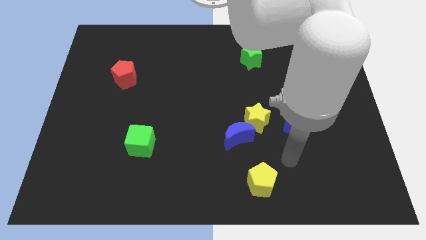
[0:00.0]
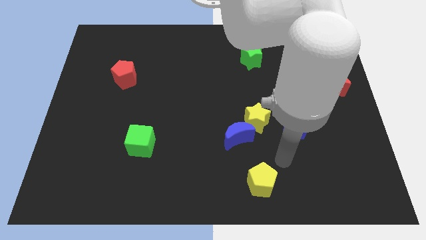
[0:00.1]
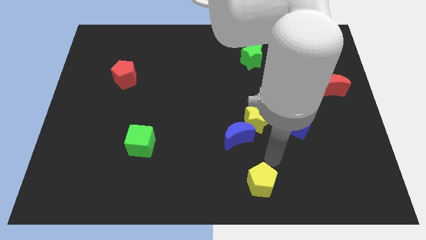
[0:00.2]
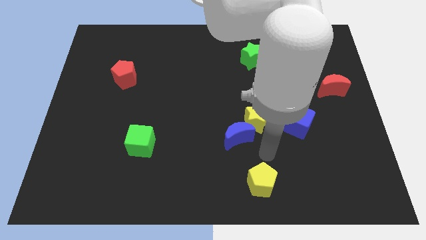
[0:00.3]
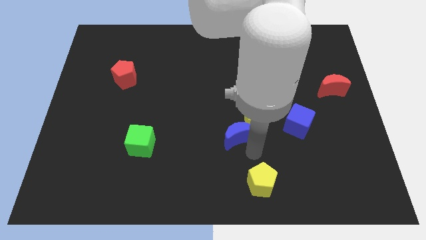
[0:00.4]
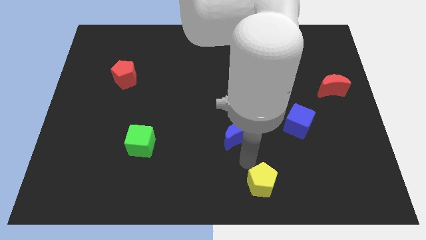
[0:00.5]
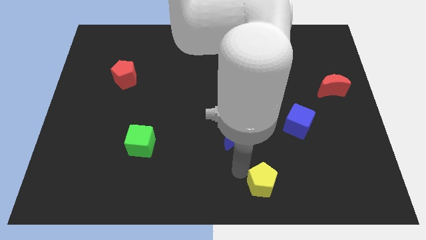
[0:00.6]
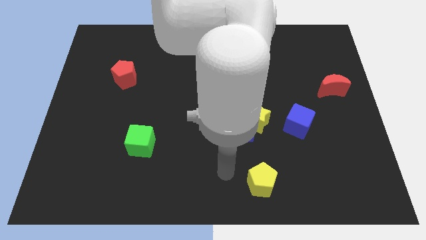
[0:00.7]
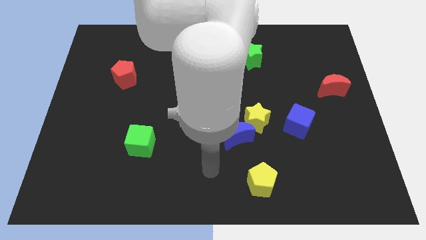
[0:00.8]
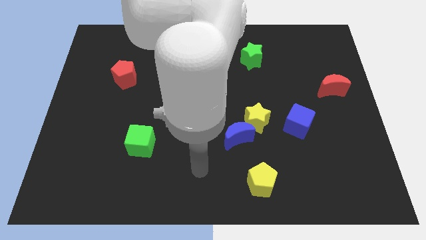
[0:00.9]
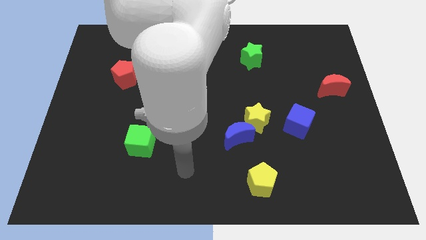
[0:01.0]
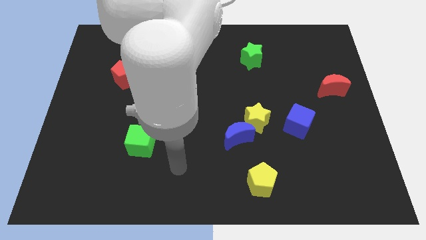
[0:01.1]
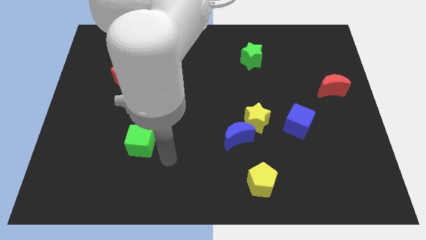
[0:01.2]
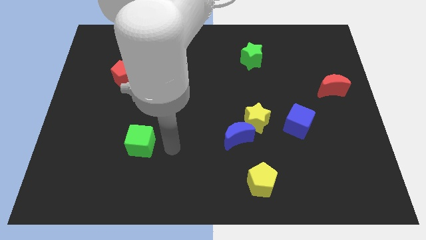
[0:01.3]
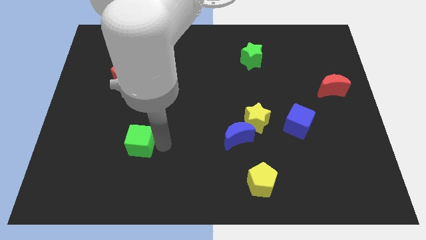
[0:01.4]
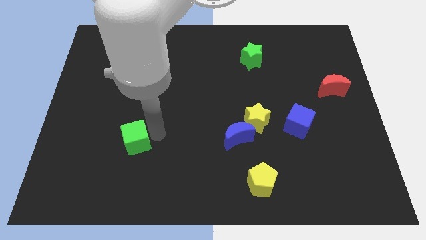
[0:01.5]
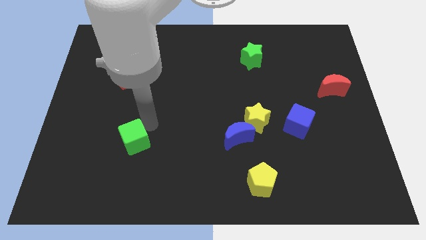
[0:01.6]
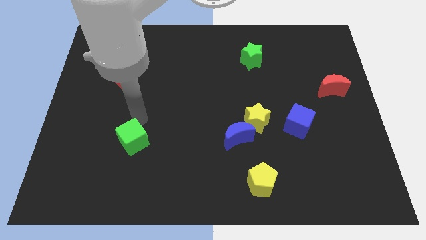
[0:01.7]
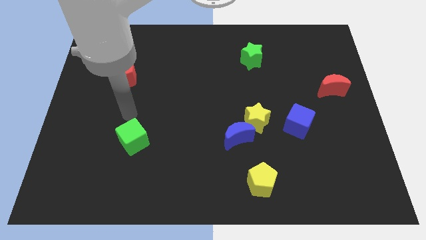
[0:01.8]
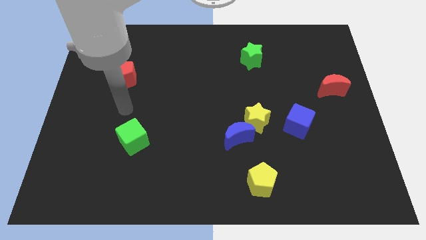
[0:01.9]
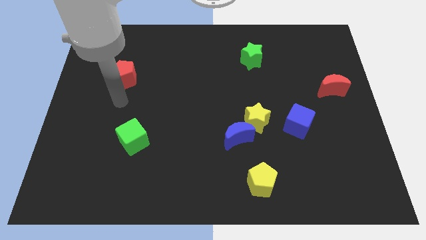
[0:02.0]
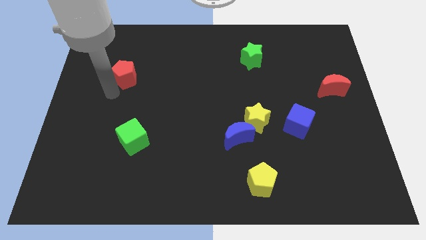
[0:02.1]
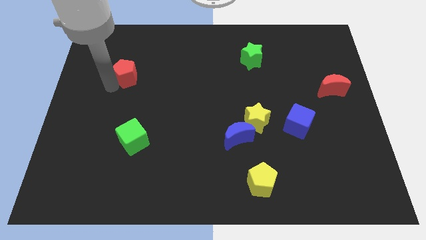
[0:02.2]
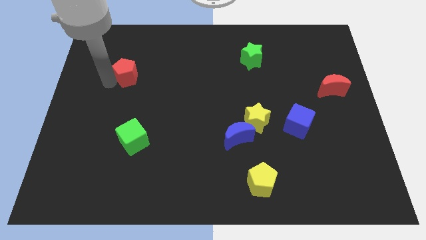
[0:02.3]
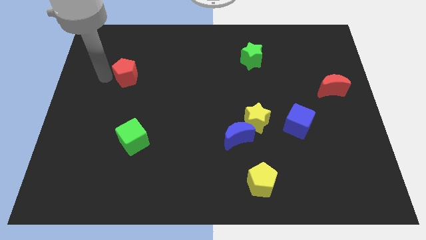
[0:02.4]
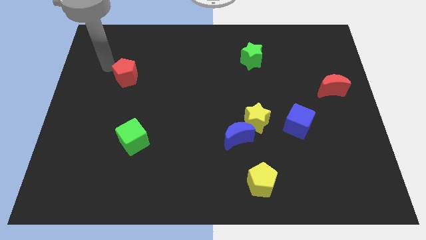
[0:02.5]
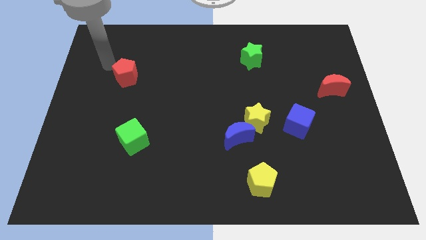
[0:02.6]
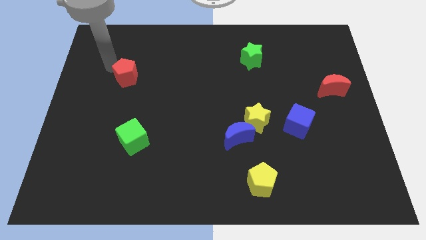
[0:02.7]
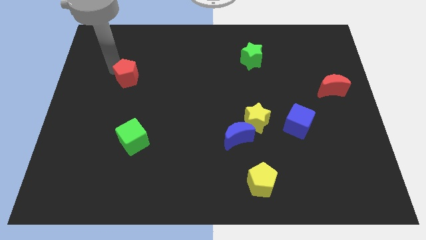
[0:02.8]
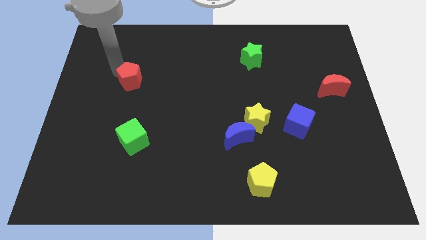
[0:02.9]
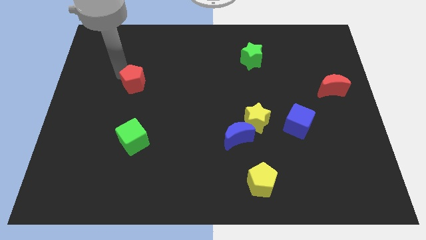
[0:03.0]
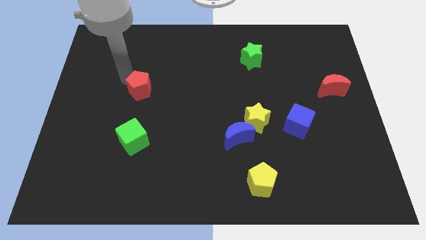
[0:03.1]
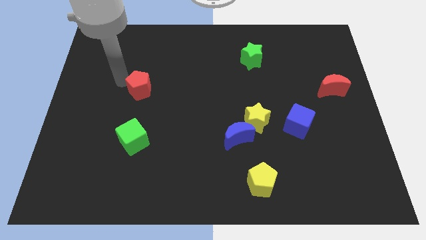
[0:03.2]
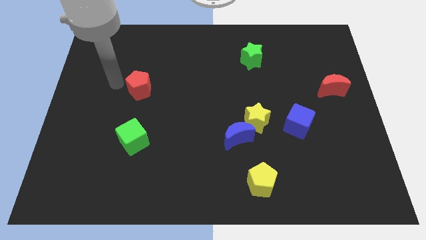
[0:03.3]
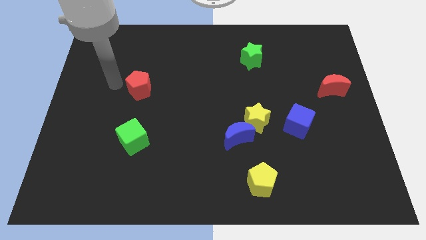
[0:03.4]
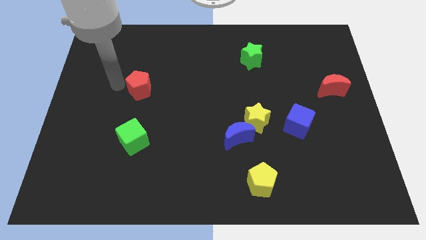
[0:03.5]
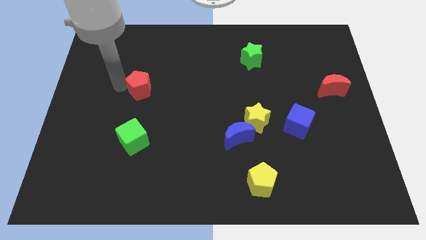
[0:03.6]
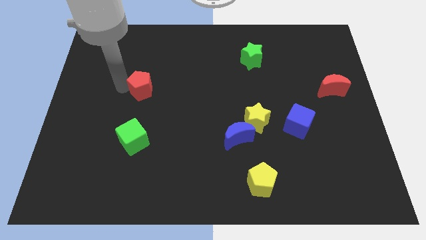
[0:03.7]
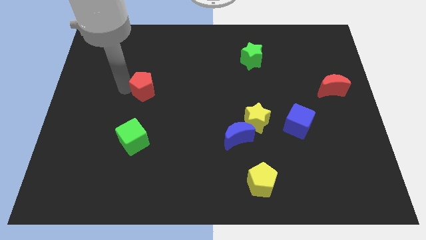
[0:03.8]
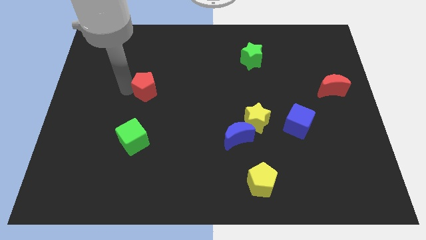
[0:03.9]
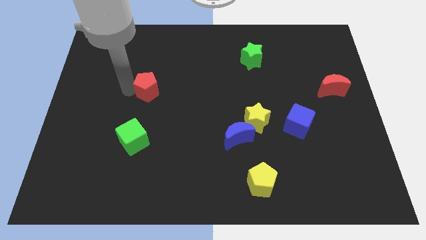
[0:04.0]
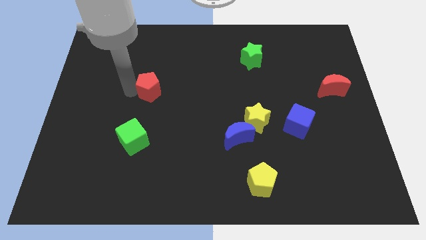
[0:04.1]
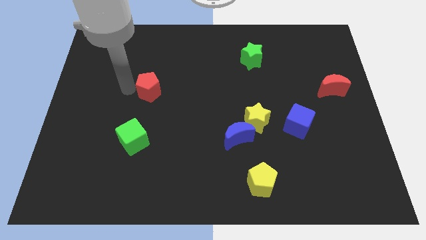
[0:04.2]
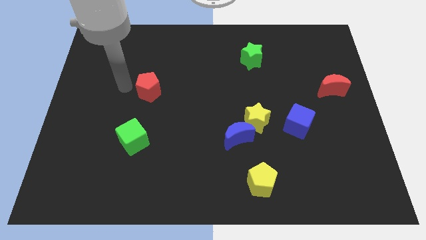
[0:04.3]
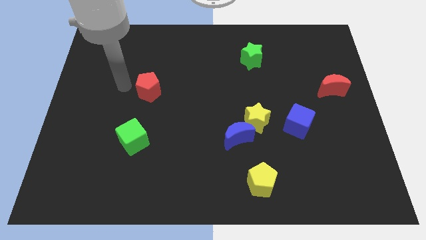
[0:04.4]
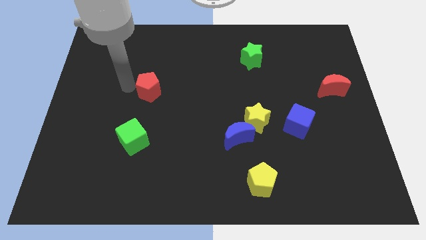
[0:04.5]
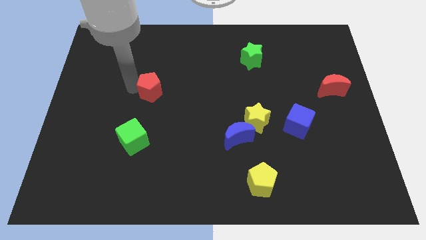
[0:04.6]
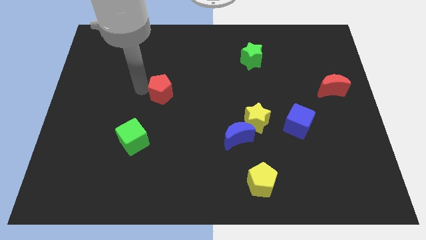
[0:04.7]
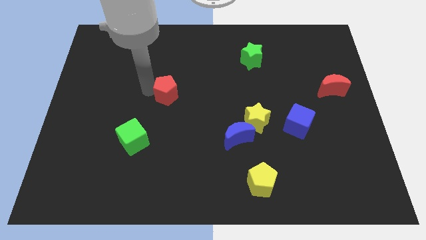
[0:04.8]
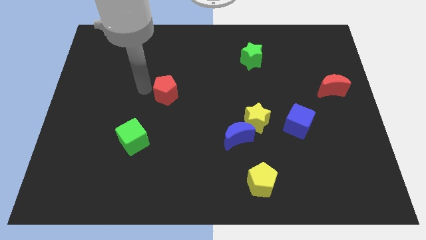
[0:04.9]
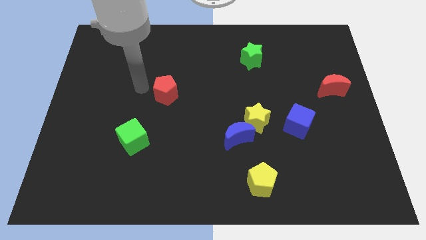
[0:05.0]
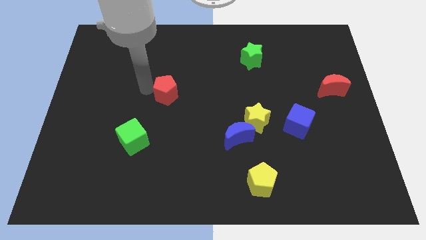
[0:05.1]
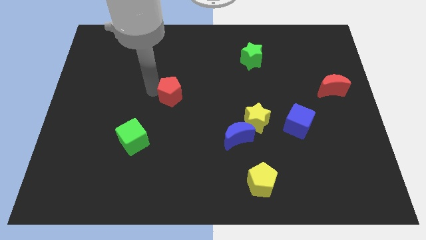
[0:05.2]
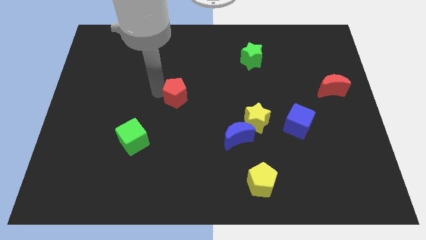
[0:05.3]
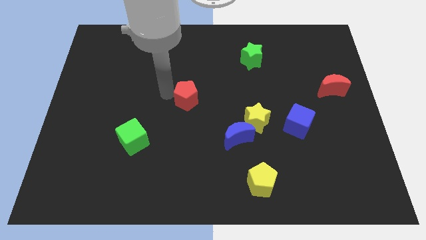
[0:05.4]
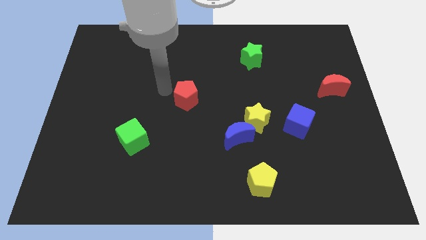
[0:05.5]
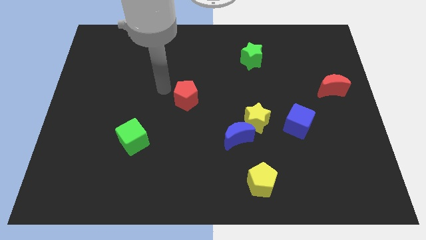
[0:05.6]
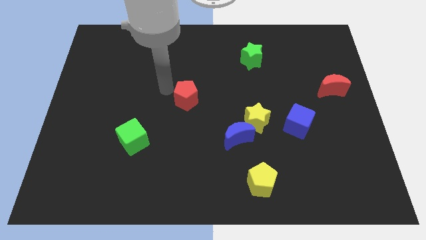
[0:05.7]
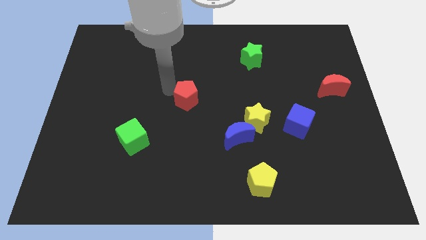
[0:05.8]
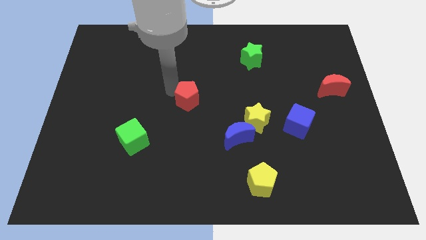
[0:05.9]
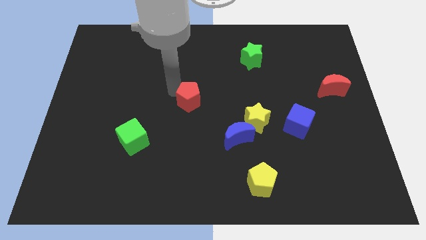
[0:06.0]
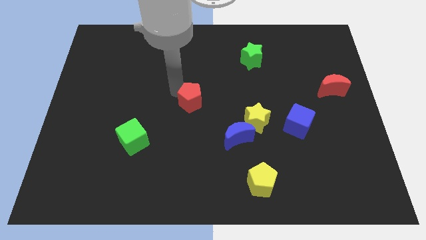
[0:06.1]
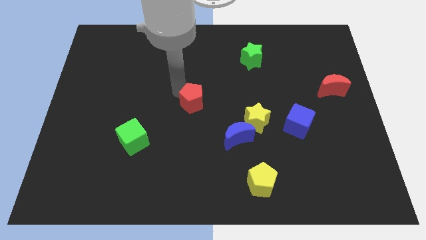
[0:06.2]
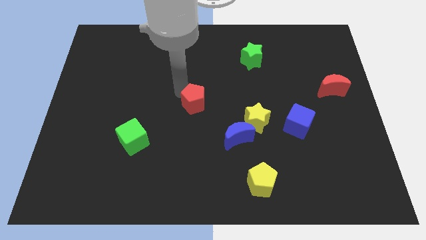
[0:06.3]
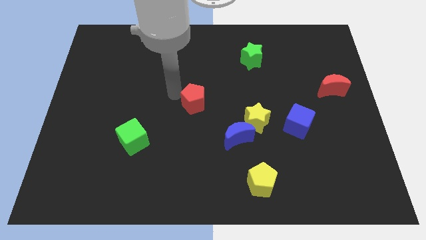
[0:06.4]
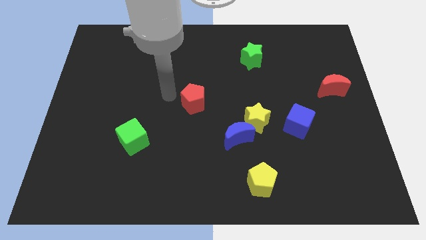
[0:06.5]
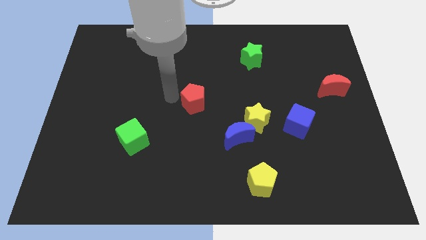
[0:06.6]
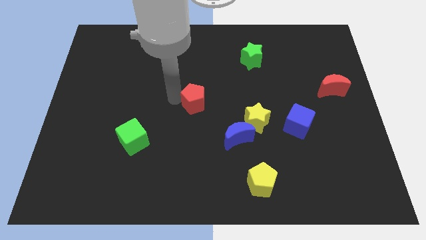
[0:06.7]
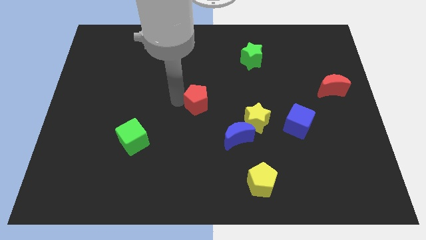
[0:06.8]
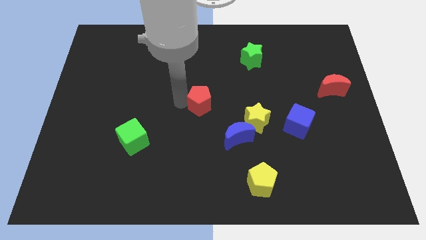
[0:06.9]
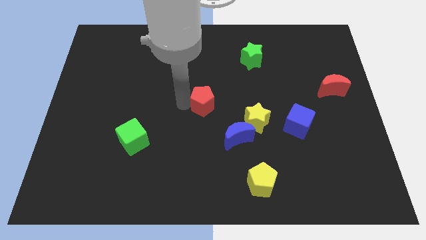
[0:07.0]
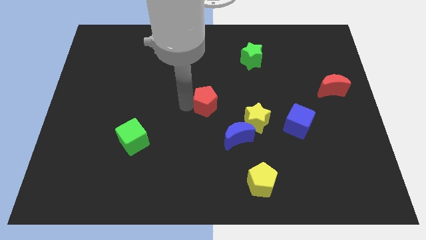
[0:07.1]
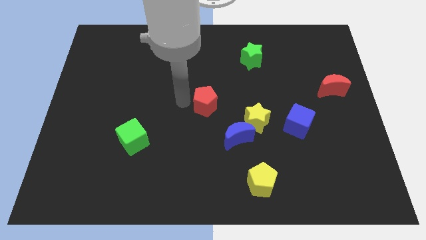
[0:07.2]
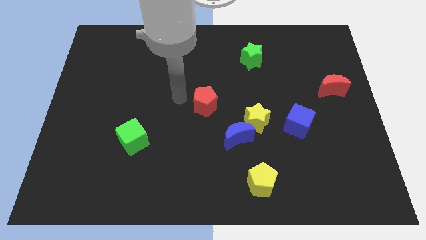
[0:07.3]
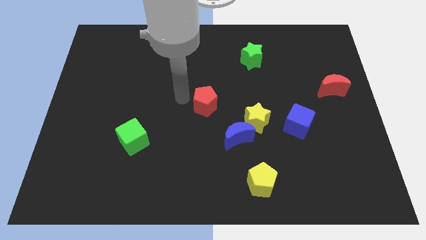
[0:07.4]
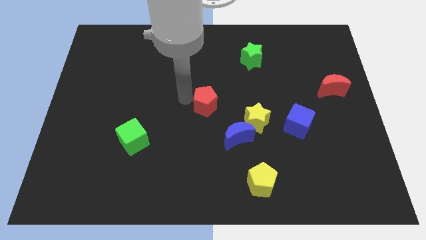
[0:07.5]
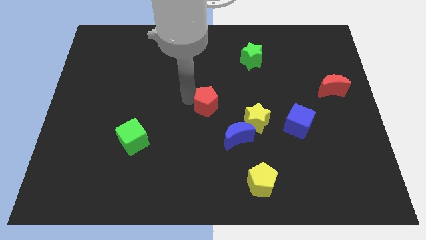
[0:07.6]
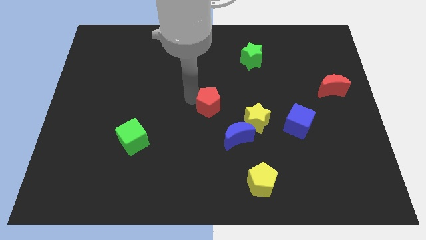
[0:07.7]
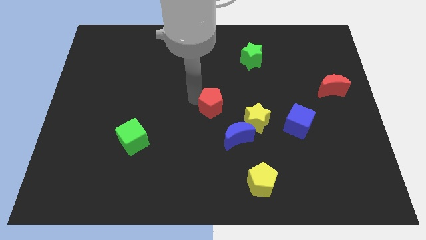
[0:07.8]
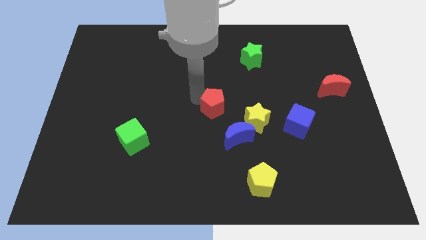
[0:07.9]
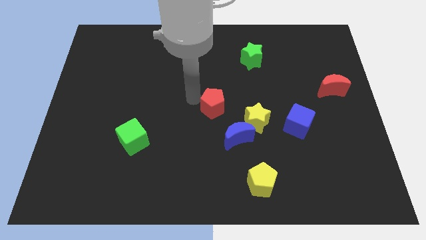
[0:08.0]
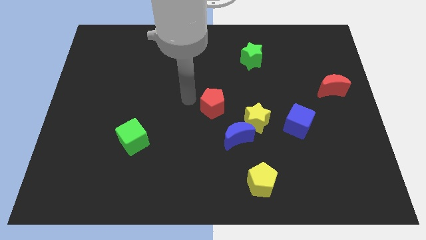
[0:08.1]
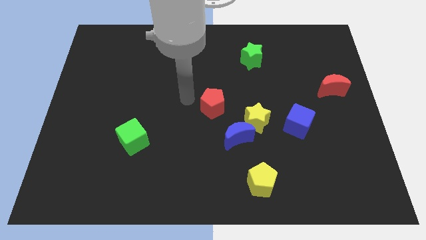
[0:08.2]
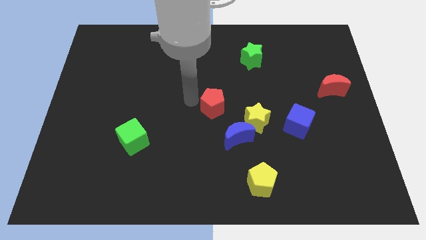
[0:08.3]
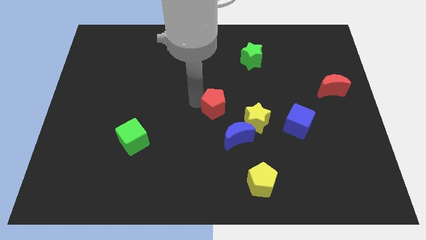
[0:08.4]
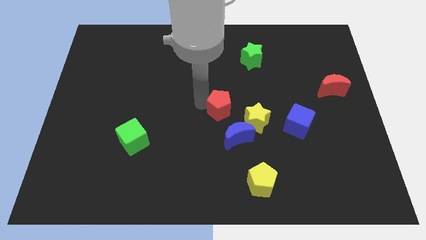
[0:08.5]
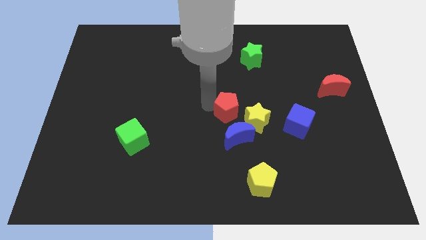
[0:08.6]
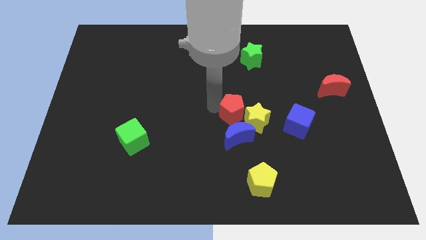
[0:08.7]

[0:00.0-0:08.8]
push the red pentagon close to the yellow star
